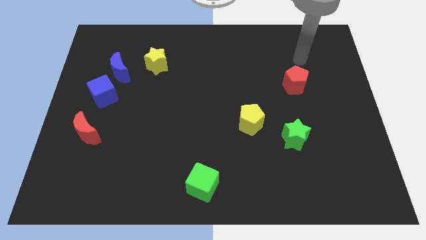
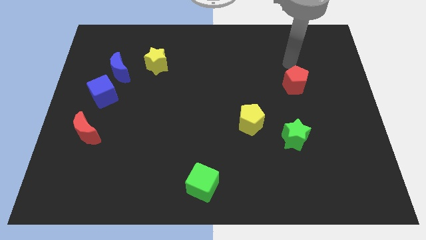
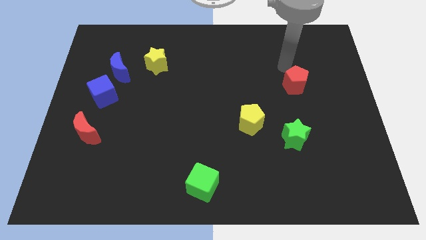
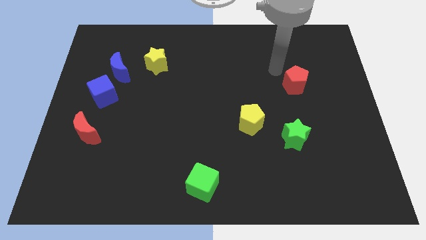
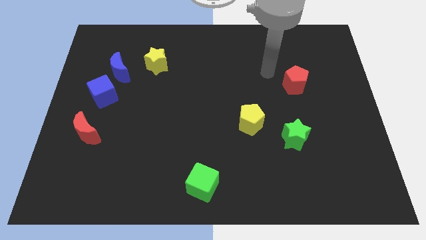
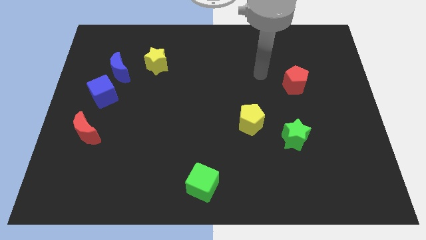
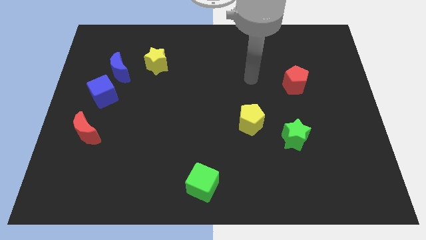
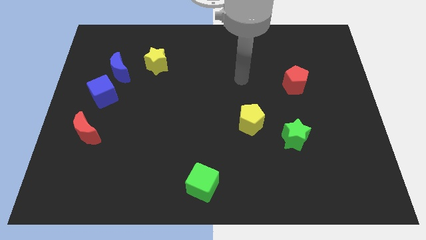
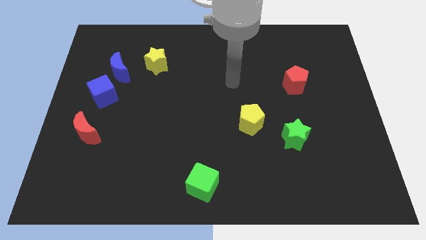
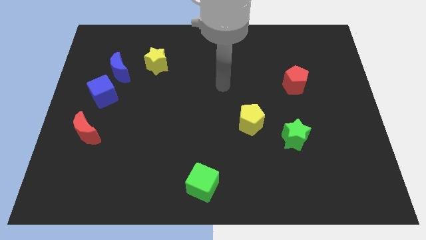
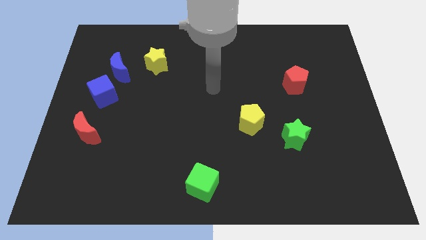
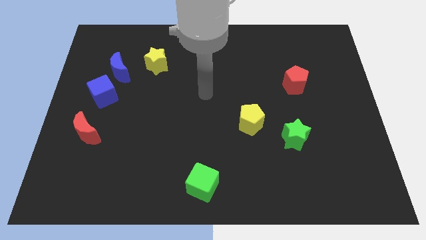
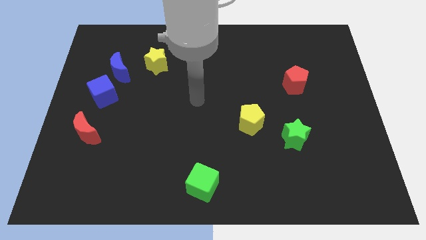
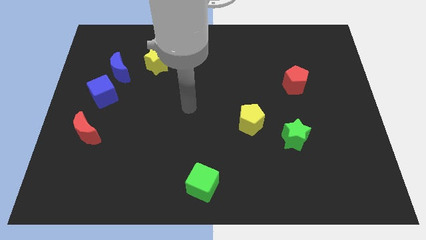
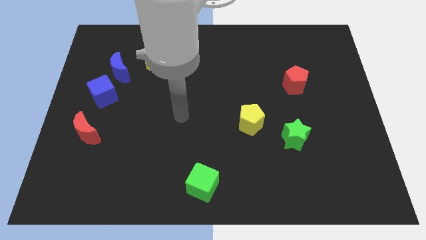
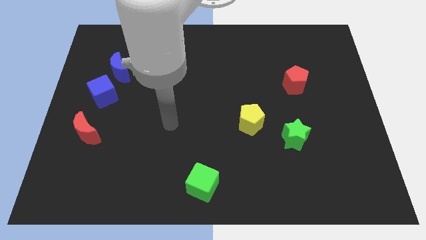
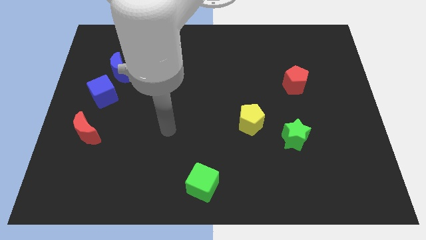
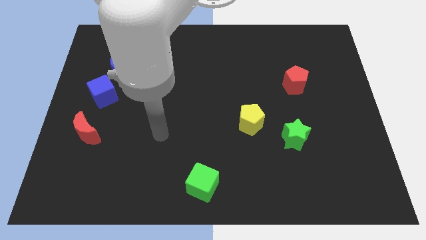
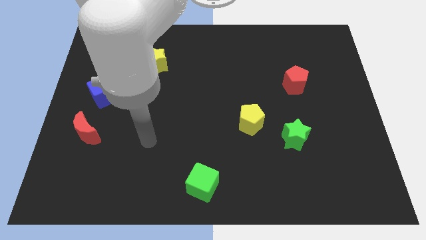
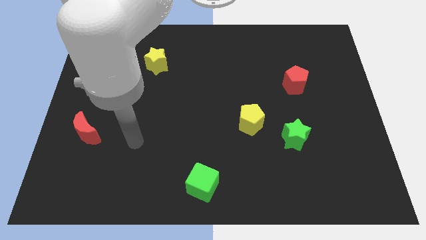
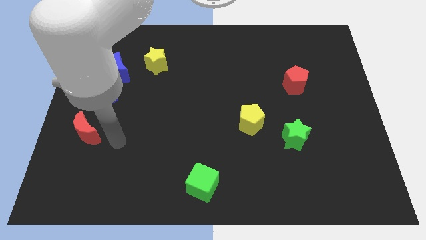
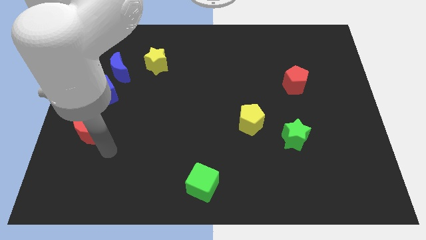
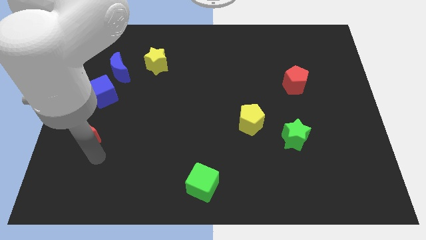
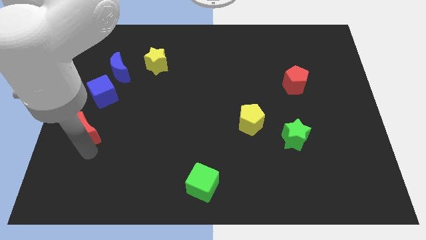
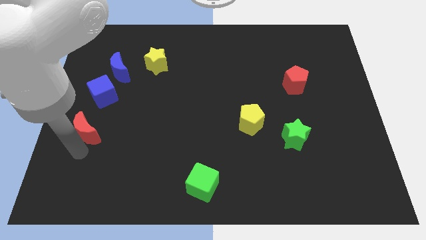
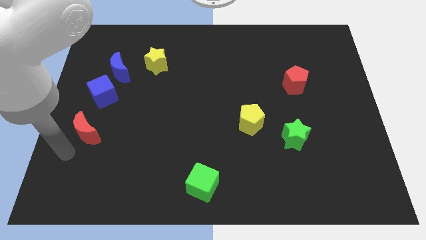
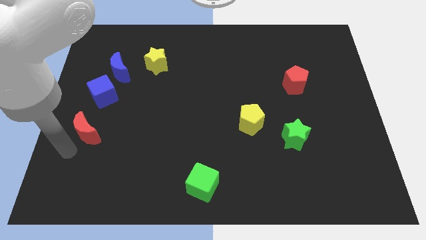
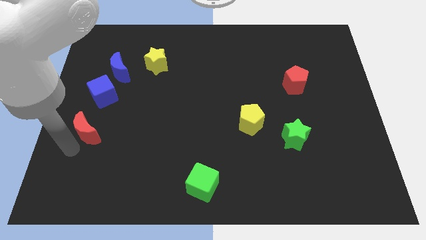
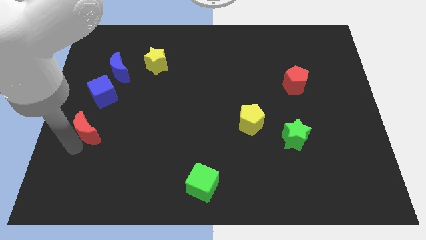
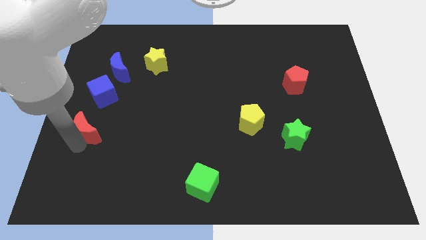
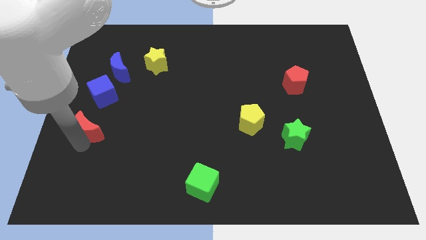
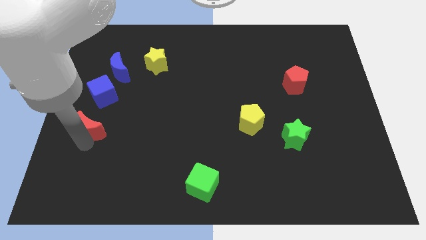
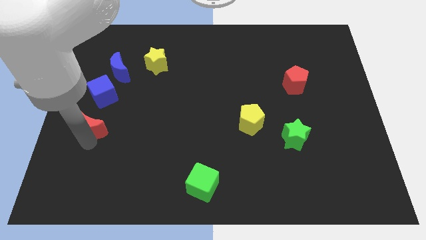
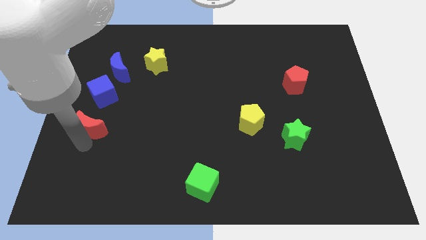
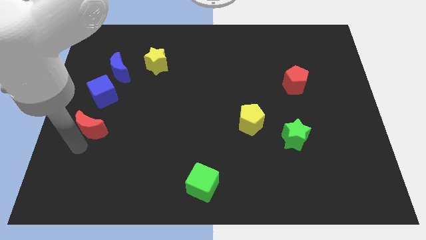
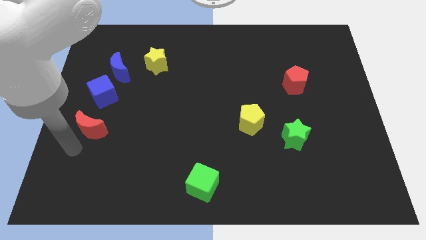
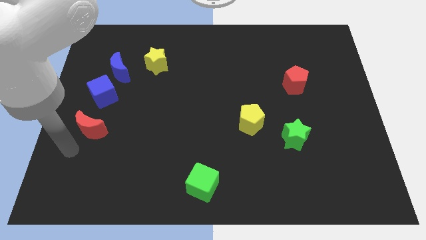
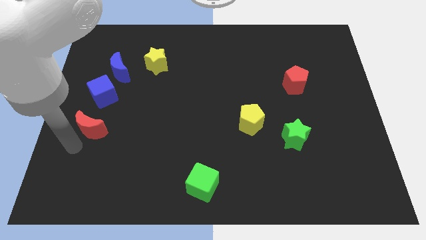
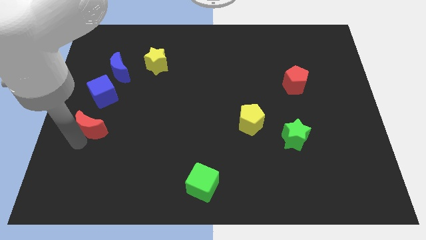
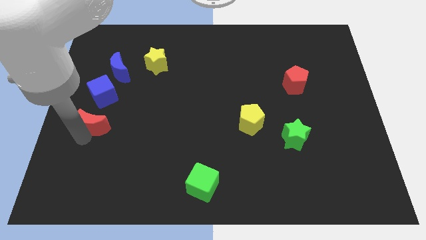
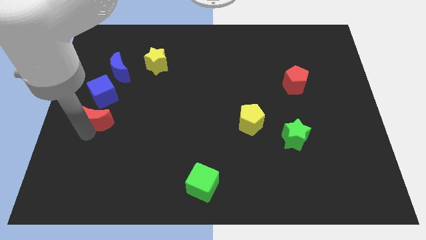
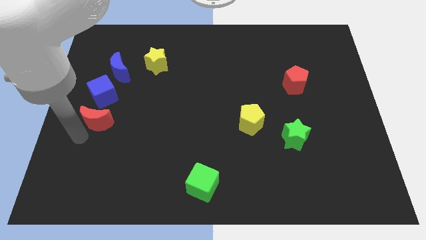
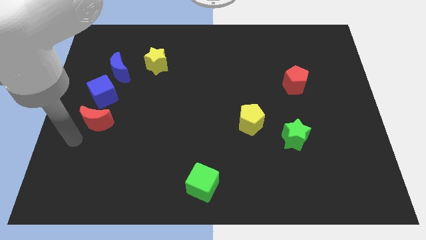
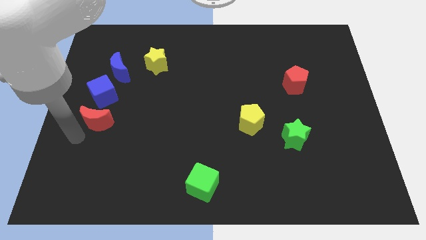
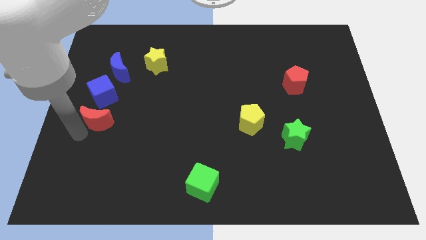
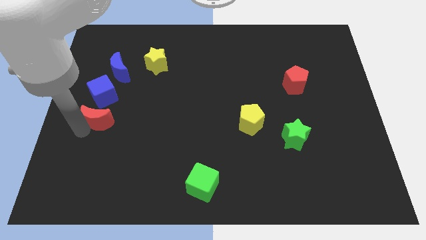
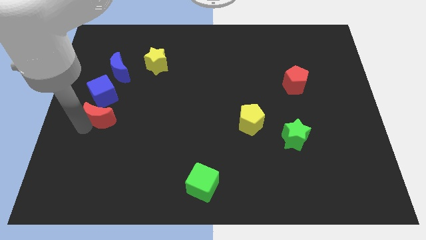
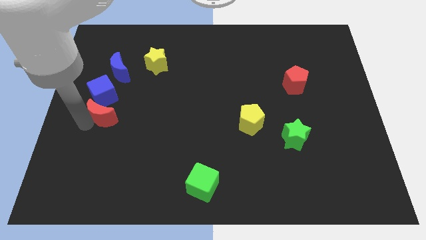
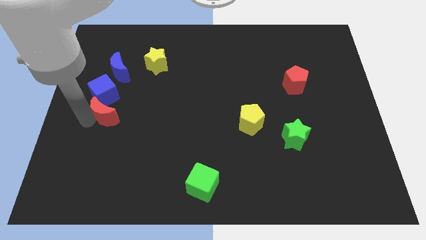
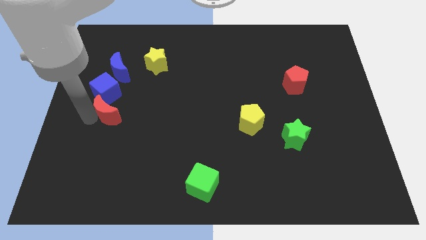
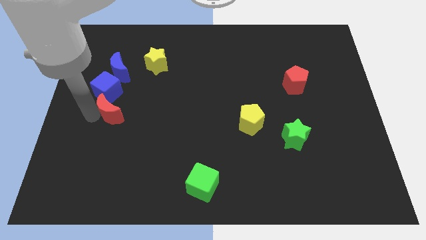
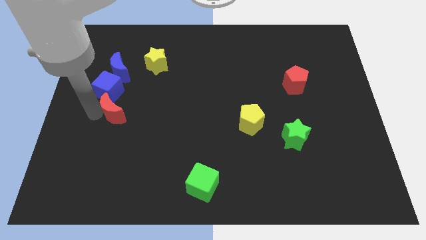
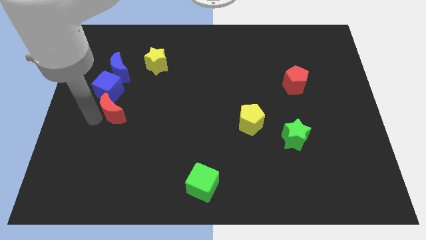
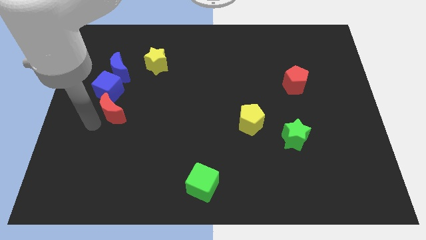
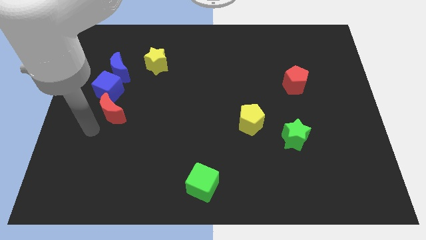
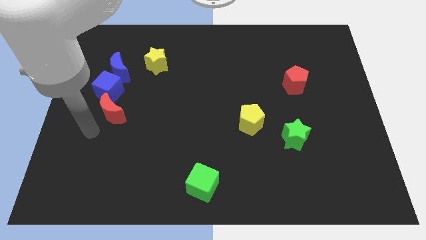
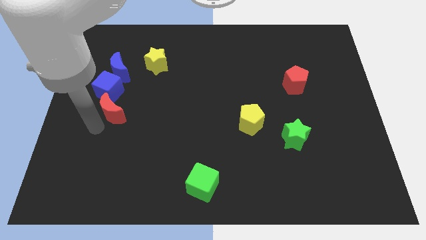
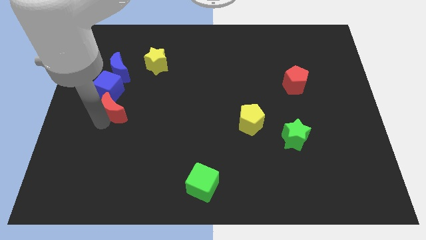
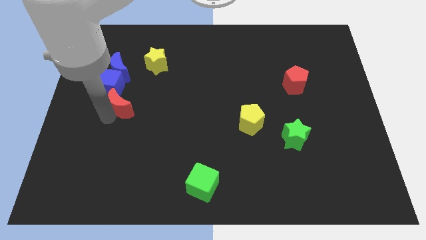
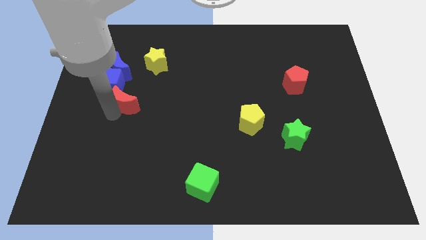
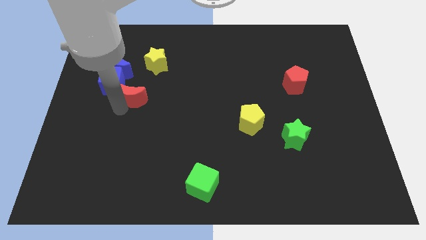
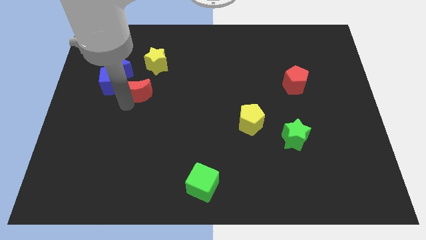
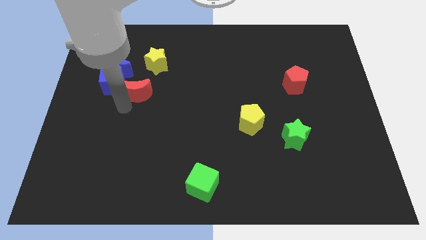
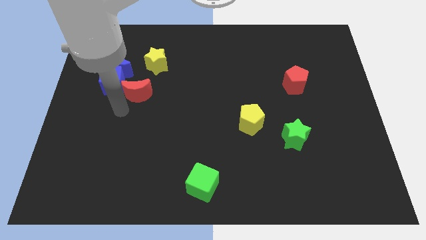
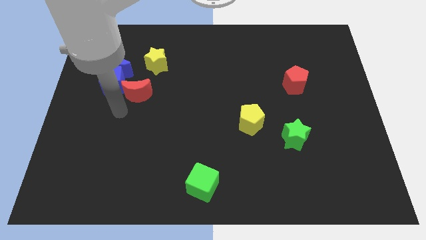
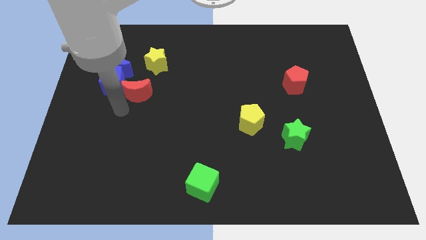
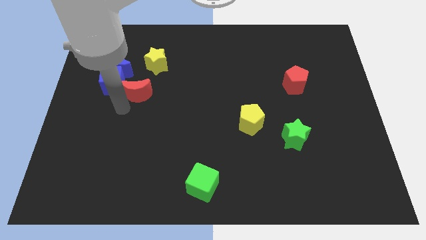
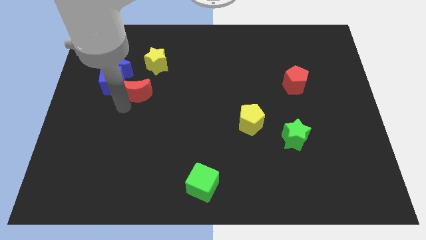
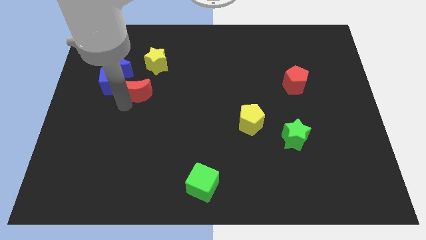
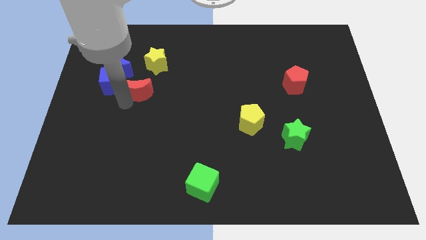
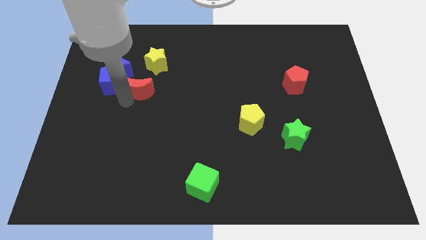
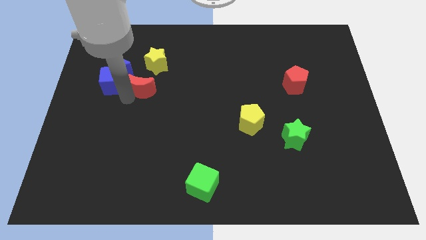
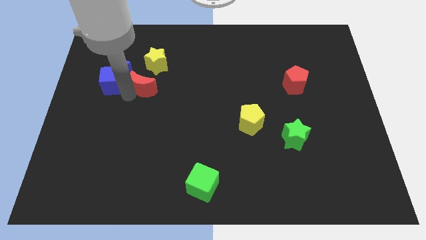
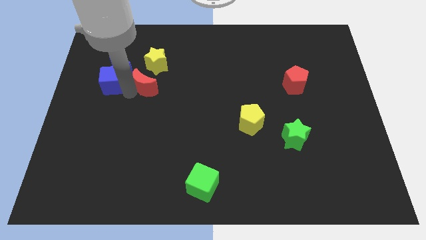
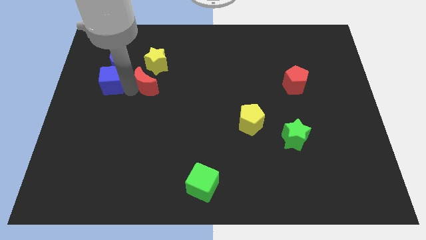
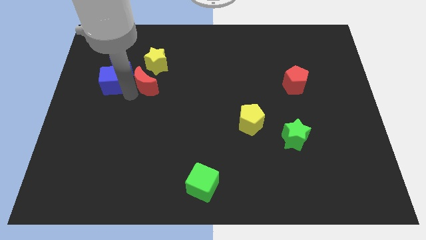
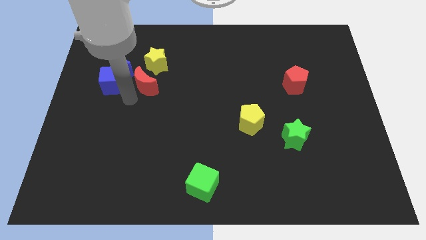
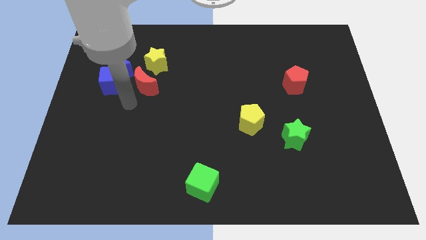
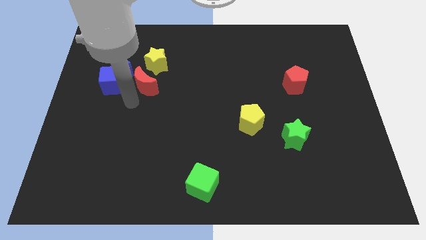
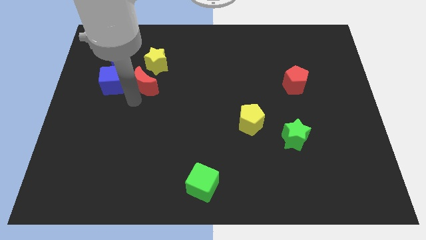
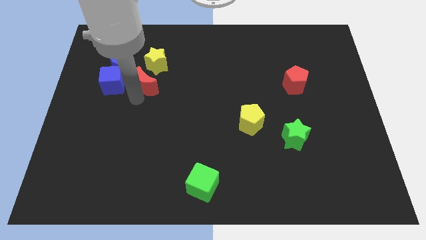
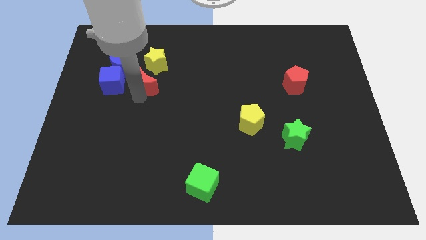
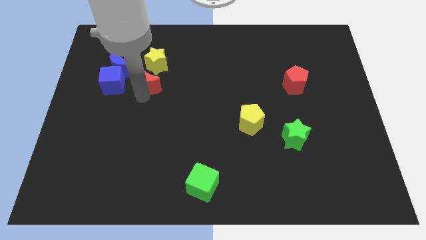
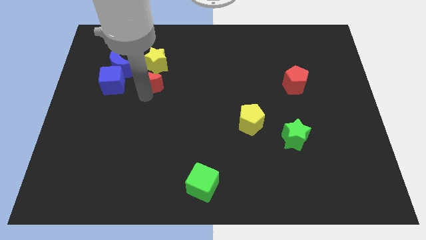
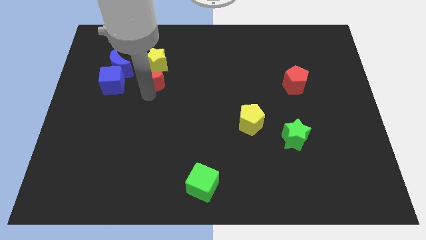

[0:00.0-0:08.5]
slide the red moon right of the blue moon
